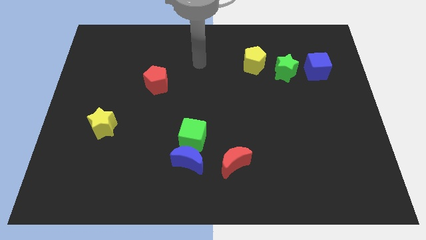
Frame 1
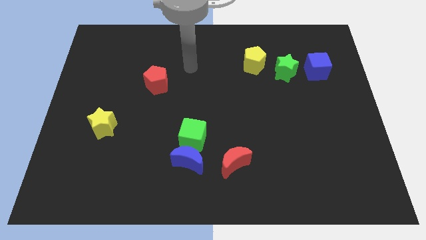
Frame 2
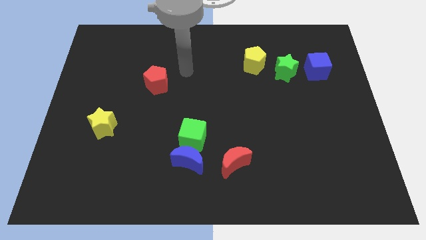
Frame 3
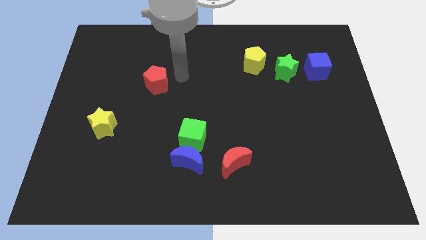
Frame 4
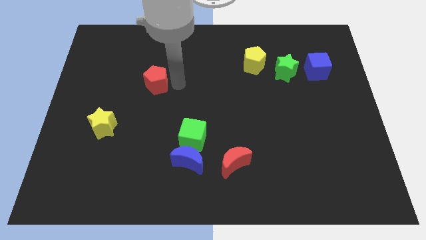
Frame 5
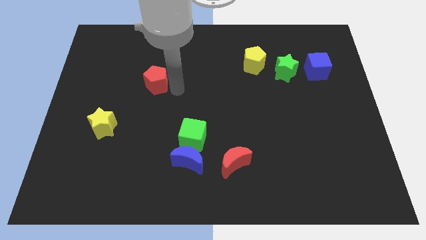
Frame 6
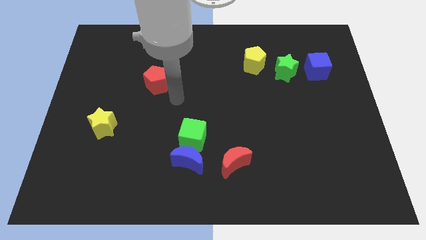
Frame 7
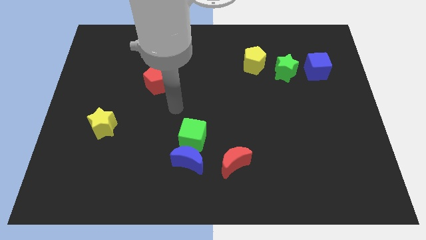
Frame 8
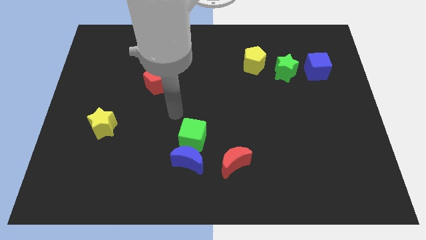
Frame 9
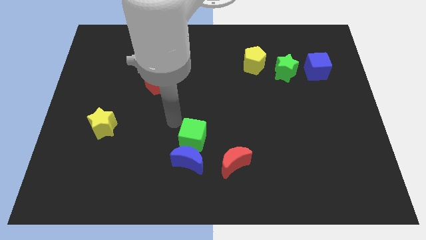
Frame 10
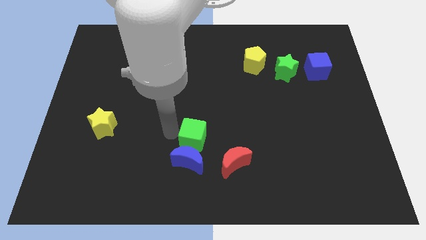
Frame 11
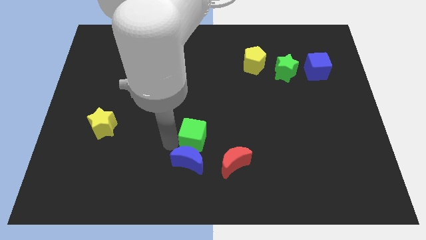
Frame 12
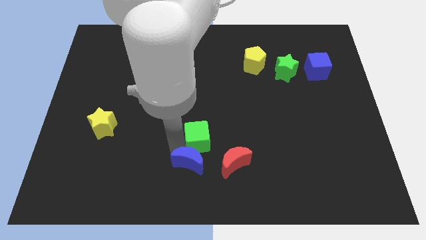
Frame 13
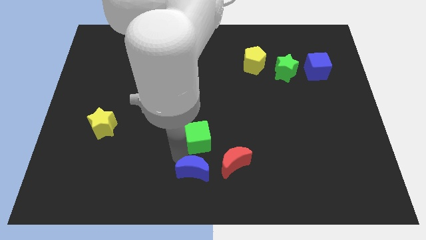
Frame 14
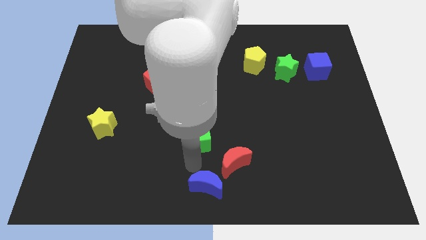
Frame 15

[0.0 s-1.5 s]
pull the green cube apart from the blue moon

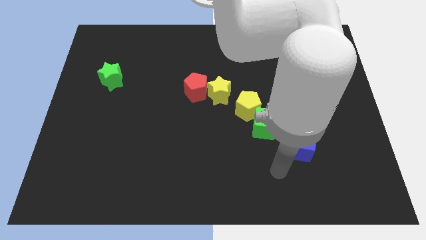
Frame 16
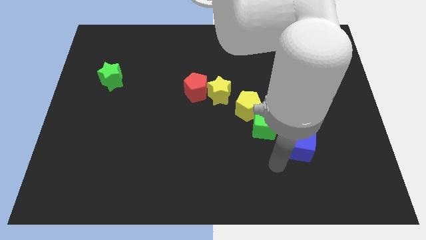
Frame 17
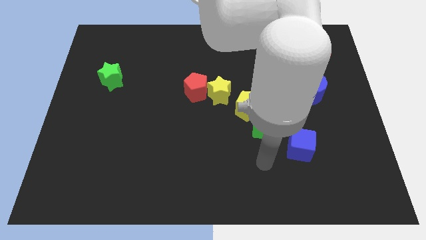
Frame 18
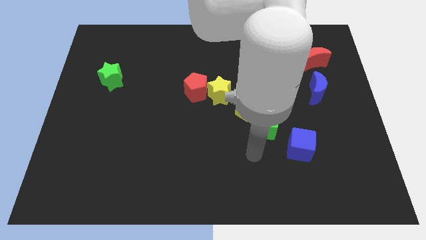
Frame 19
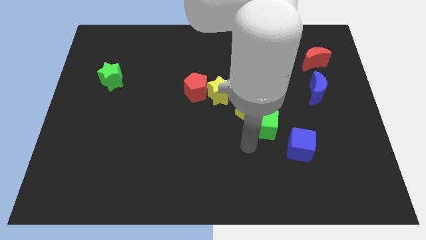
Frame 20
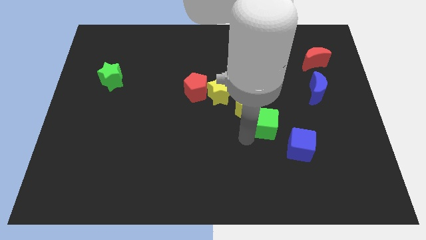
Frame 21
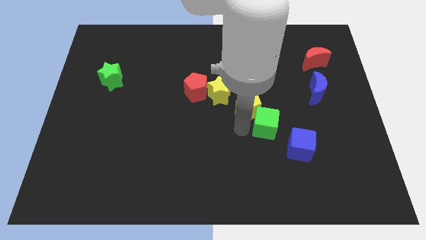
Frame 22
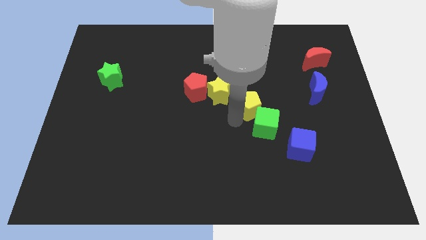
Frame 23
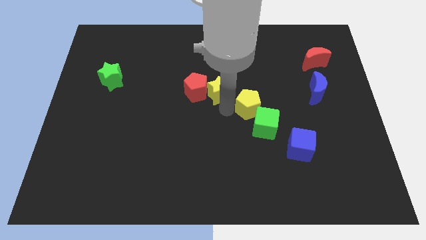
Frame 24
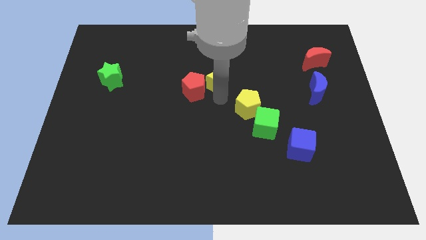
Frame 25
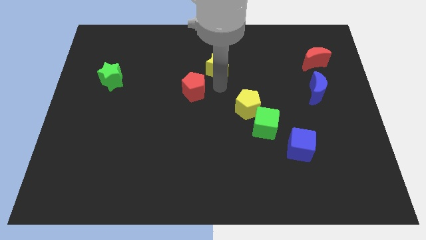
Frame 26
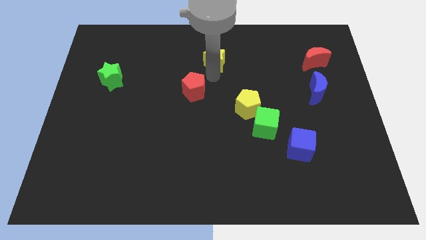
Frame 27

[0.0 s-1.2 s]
separate the red pentagon from the yellow star

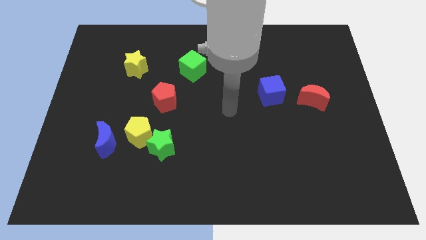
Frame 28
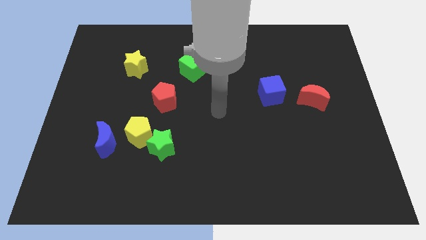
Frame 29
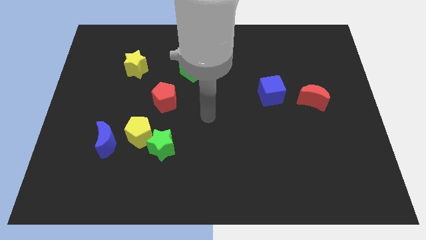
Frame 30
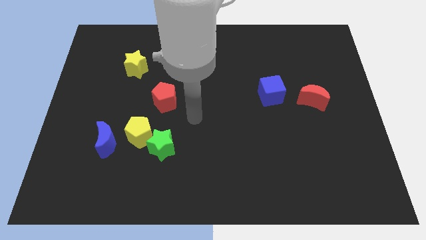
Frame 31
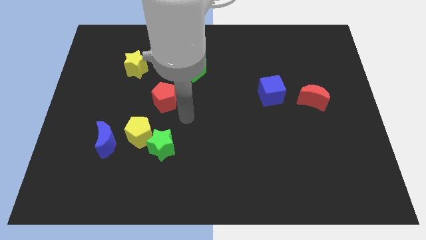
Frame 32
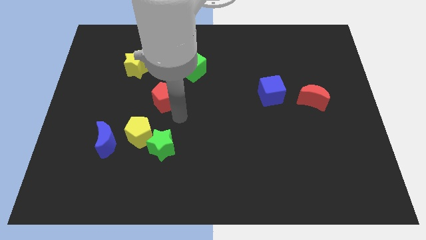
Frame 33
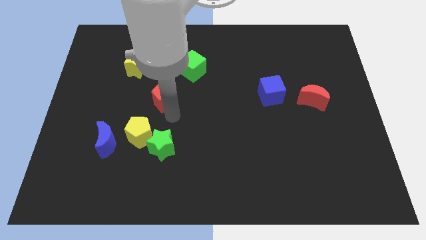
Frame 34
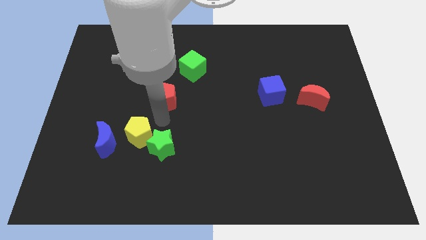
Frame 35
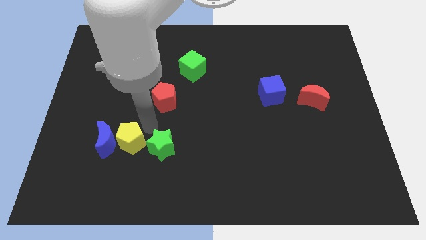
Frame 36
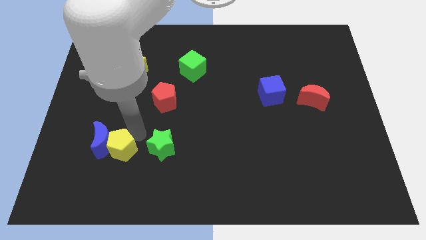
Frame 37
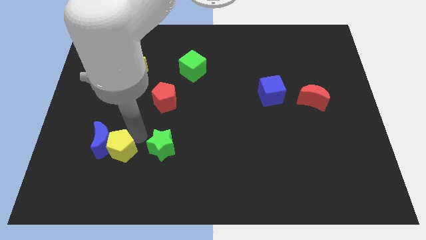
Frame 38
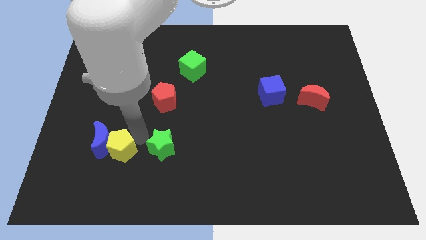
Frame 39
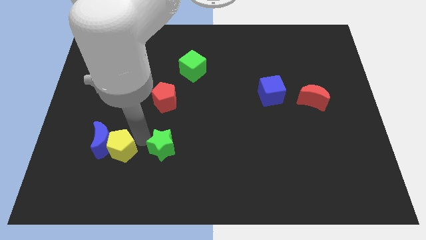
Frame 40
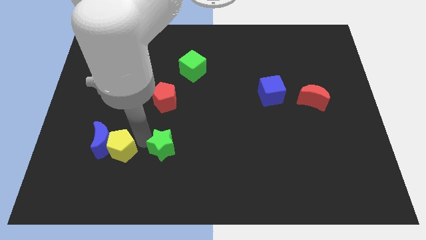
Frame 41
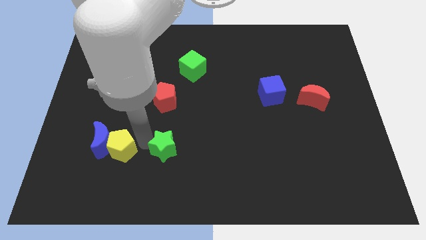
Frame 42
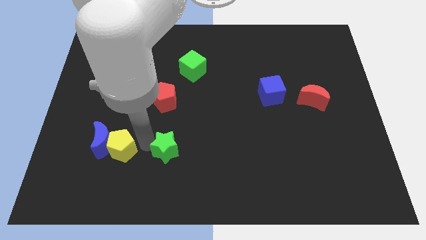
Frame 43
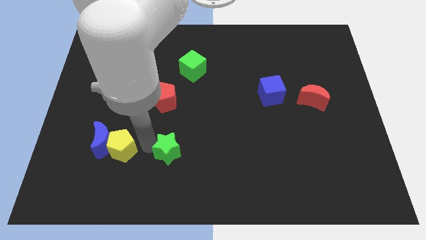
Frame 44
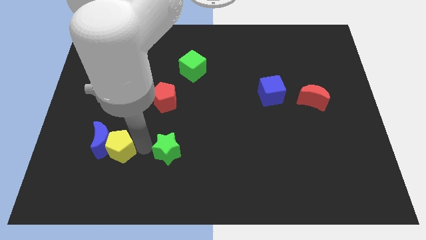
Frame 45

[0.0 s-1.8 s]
pull the green star apart from the yellow pentagon

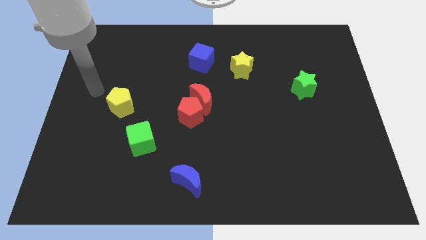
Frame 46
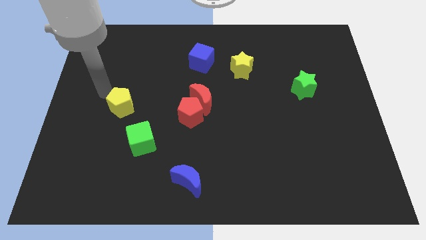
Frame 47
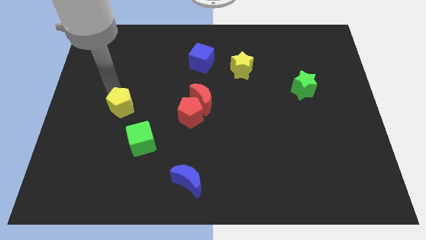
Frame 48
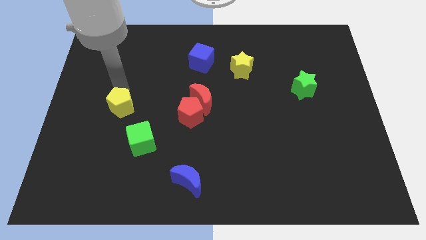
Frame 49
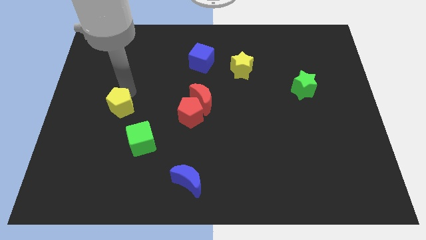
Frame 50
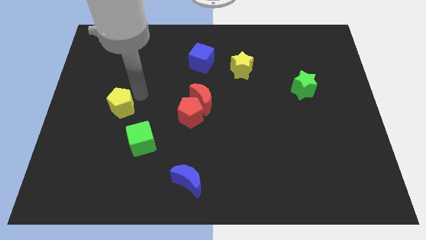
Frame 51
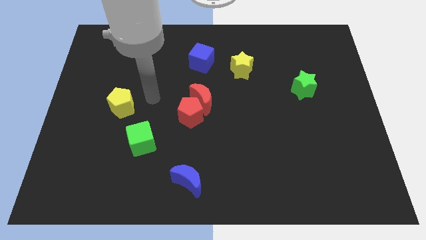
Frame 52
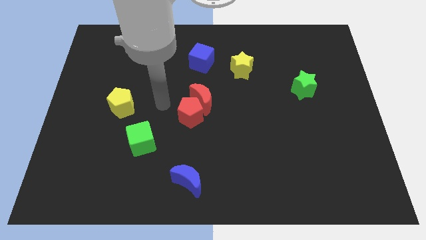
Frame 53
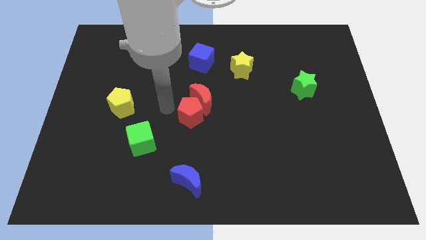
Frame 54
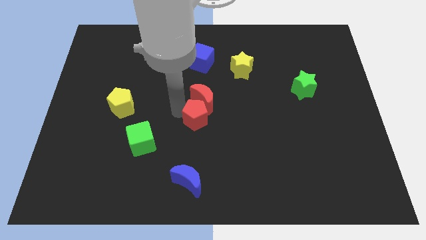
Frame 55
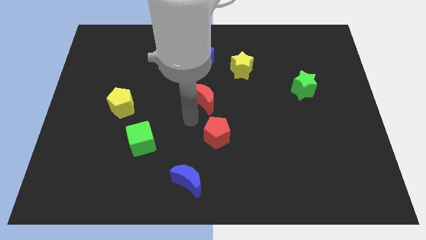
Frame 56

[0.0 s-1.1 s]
separate the red moon from the red pentagon

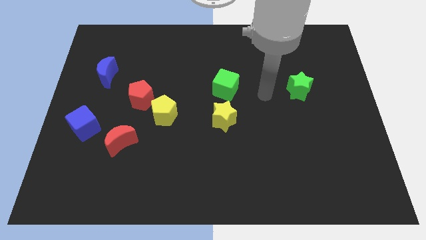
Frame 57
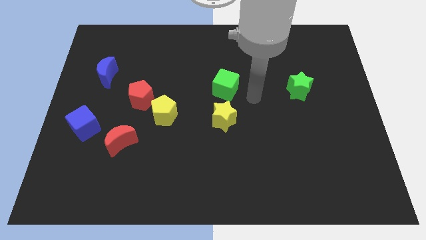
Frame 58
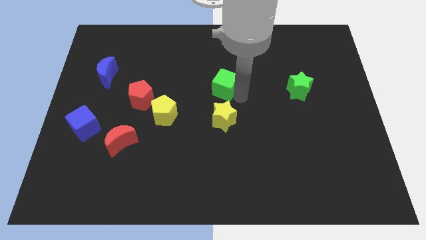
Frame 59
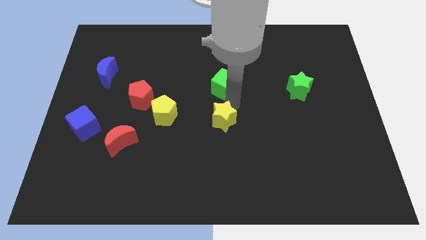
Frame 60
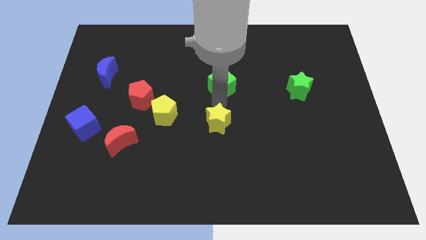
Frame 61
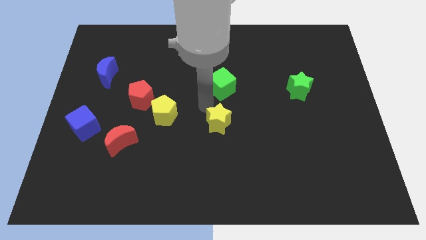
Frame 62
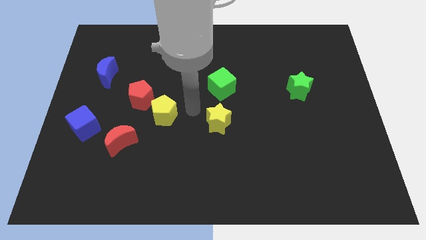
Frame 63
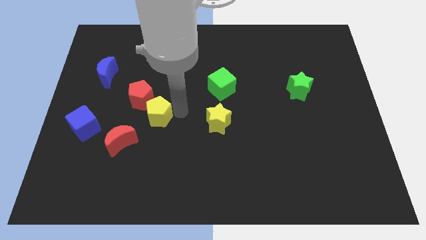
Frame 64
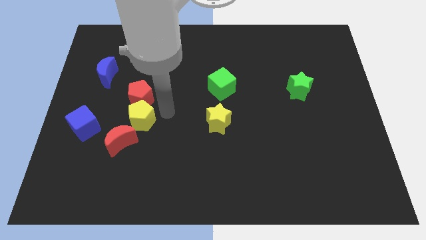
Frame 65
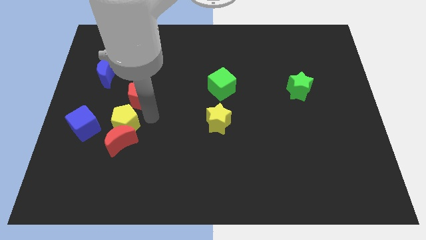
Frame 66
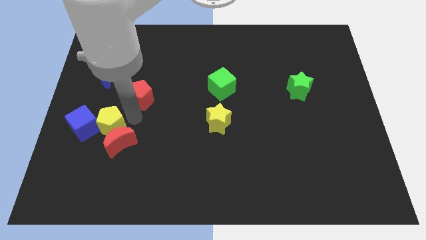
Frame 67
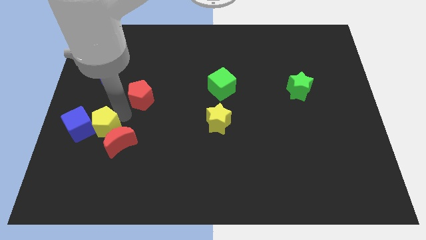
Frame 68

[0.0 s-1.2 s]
separate the red pentagon from the yellow pentagon

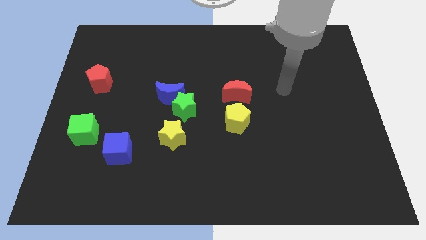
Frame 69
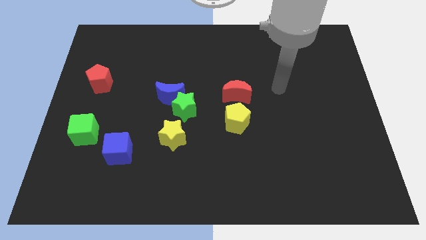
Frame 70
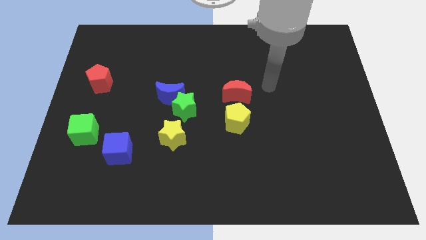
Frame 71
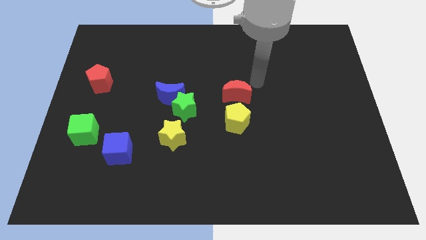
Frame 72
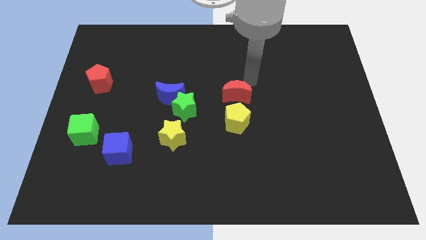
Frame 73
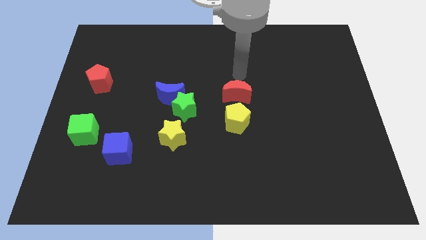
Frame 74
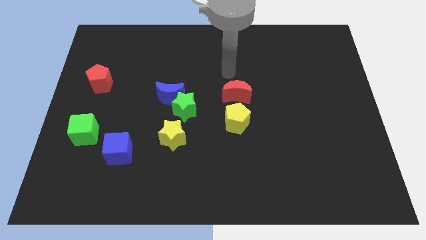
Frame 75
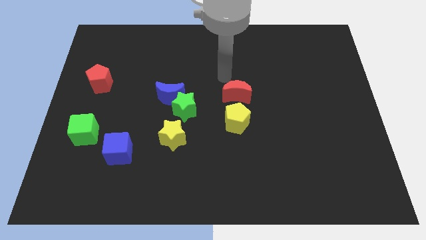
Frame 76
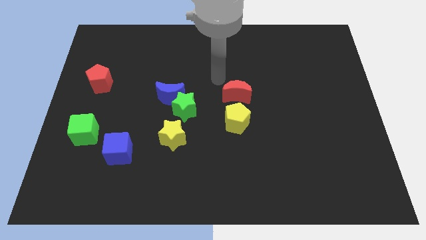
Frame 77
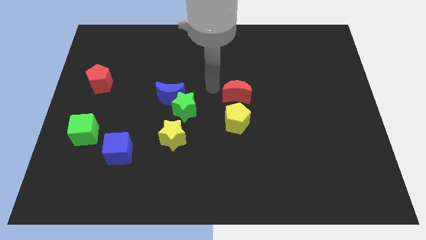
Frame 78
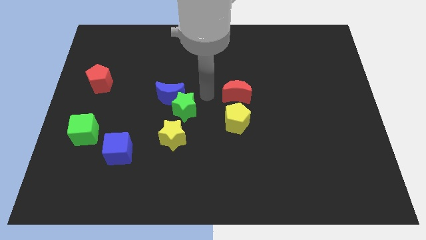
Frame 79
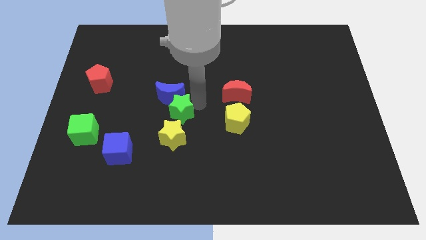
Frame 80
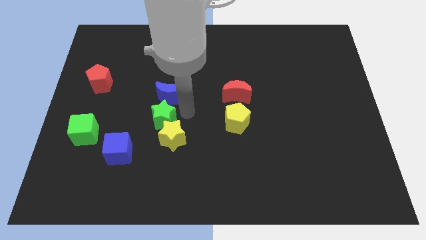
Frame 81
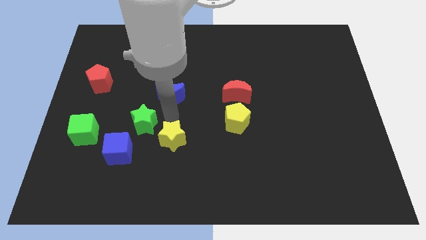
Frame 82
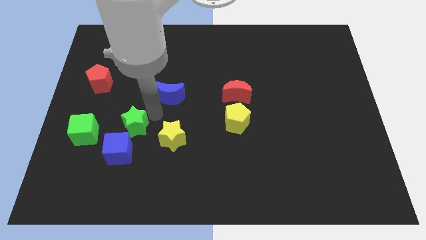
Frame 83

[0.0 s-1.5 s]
separate the blue moon from the green star

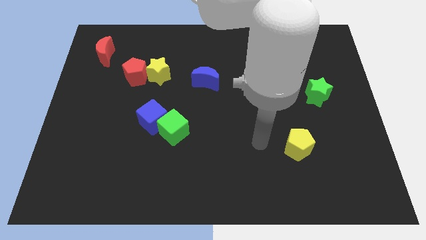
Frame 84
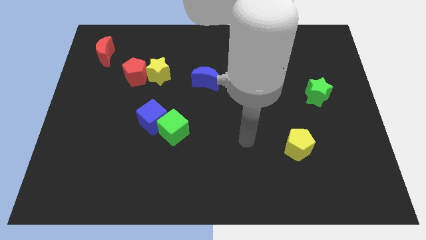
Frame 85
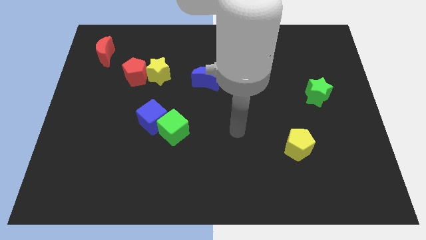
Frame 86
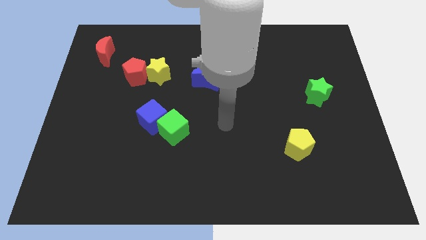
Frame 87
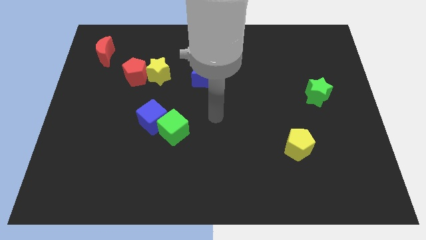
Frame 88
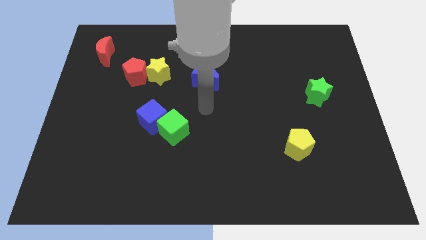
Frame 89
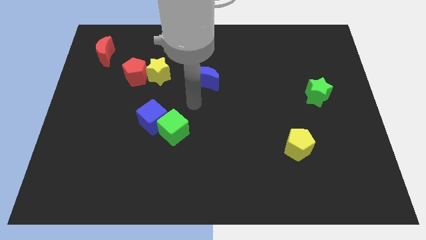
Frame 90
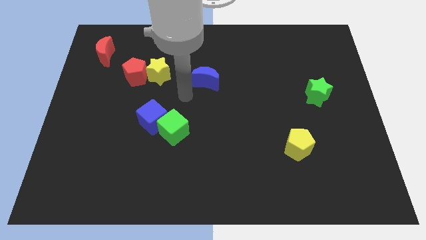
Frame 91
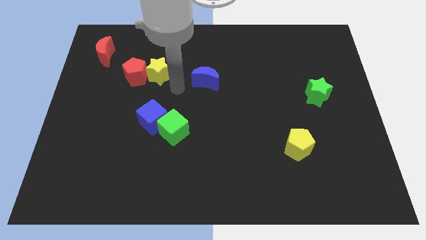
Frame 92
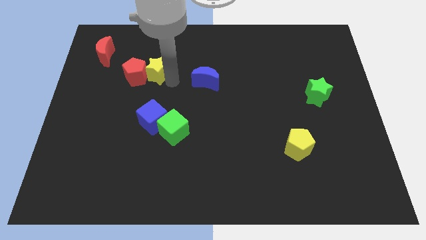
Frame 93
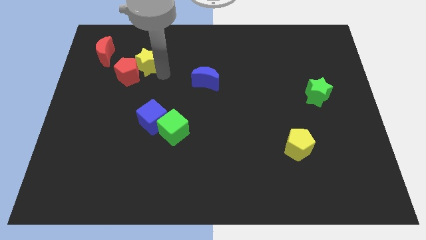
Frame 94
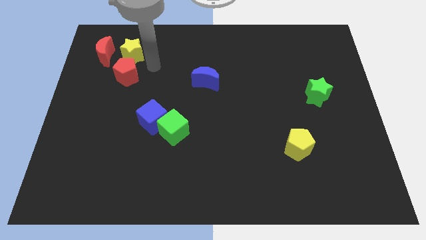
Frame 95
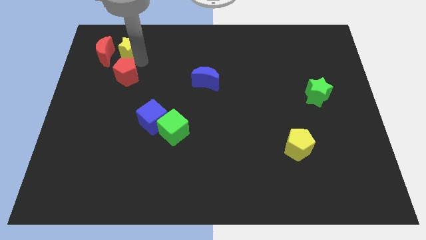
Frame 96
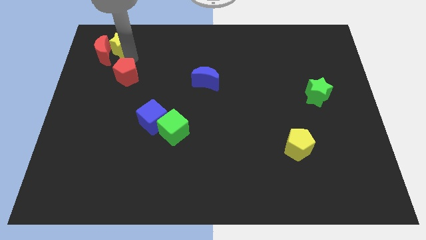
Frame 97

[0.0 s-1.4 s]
pull the red pentagon apart from the yellow star
